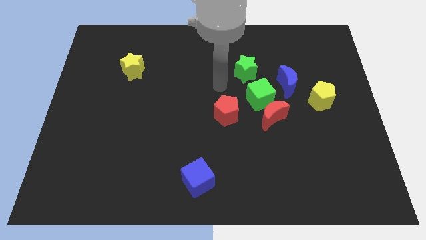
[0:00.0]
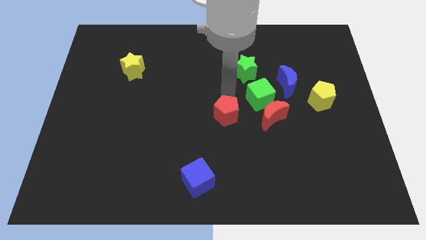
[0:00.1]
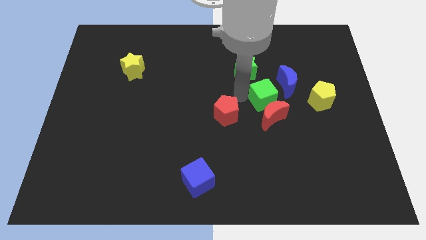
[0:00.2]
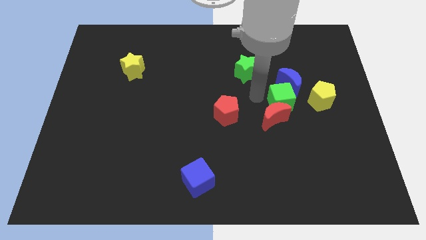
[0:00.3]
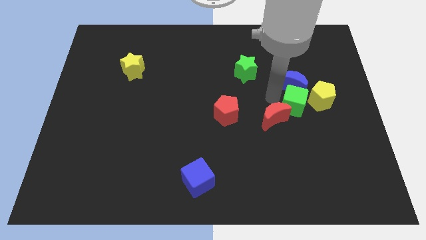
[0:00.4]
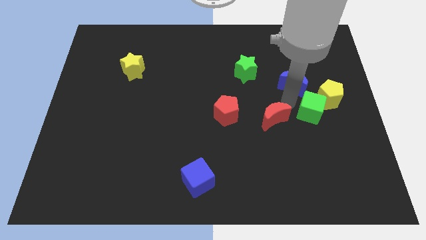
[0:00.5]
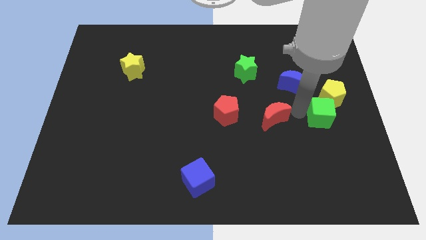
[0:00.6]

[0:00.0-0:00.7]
separate the red moon from the green cube

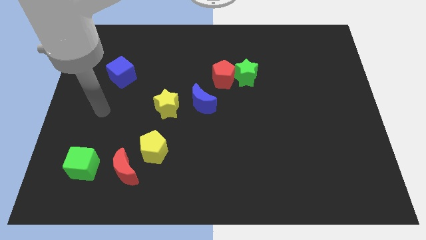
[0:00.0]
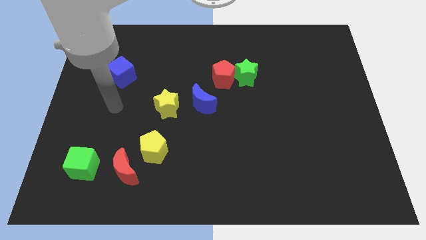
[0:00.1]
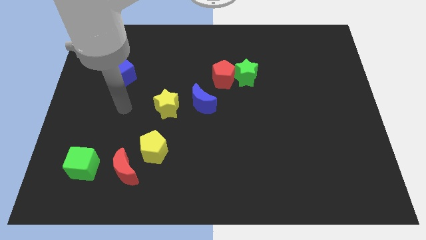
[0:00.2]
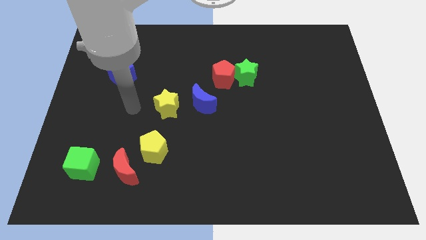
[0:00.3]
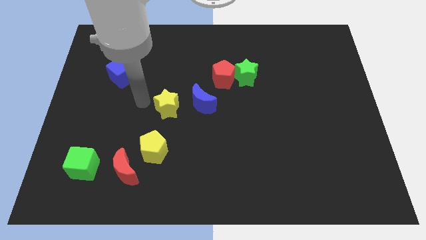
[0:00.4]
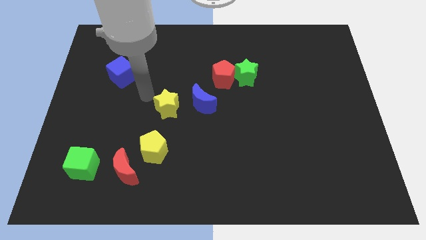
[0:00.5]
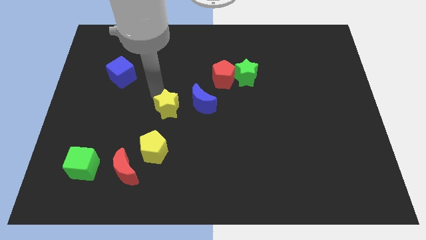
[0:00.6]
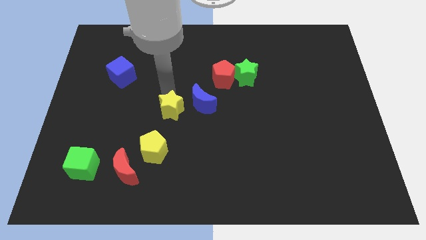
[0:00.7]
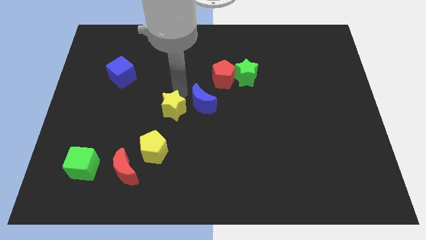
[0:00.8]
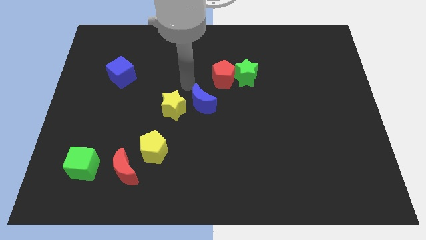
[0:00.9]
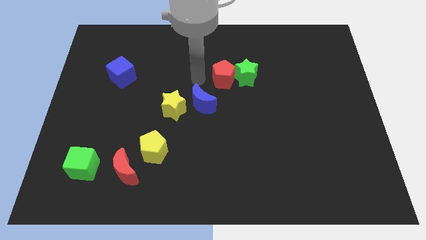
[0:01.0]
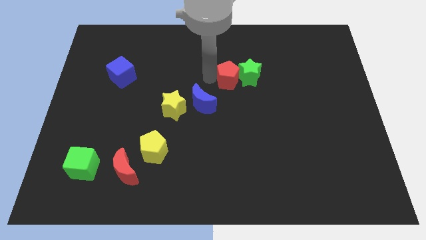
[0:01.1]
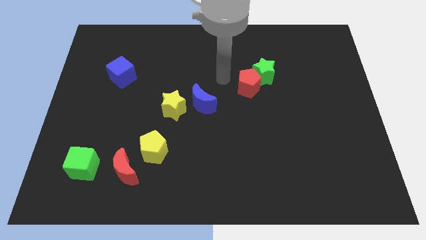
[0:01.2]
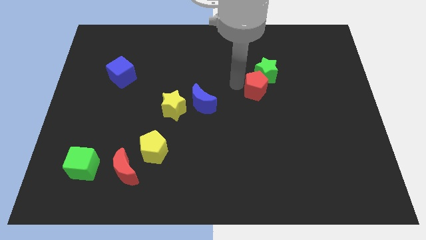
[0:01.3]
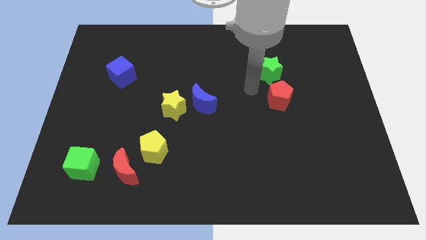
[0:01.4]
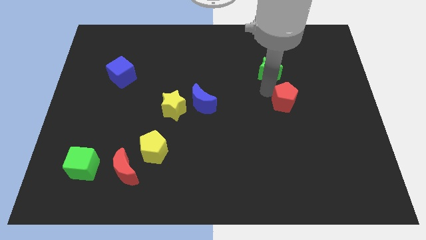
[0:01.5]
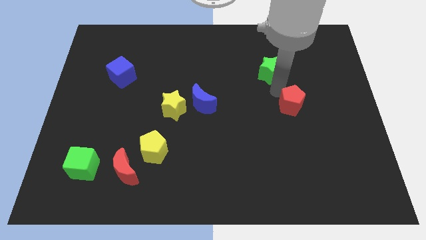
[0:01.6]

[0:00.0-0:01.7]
separate the green star from the red pentagon

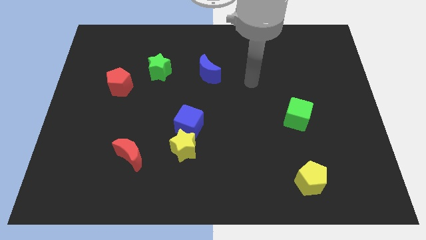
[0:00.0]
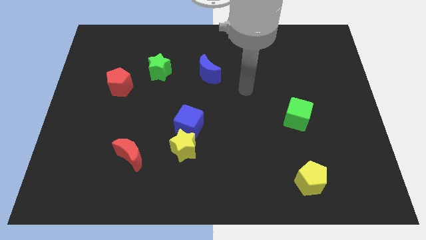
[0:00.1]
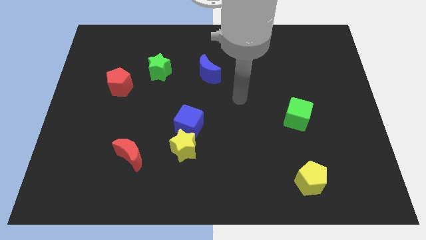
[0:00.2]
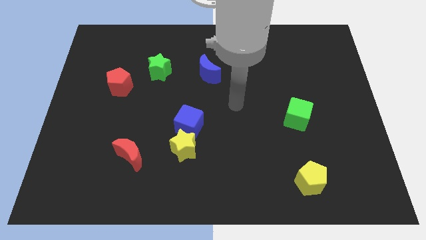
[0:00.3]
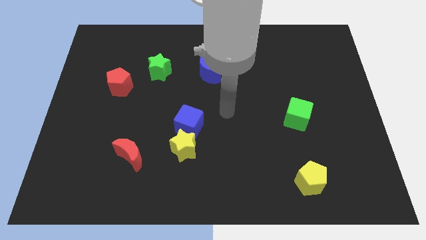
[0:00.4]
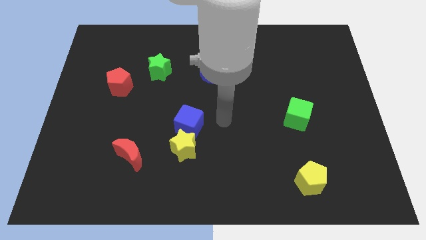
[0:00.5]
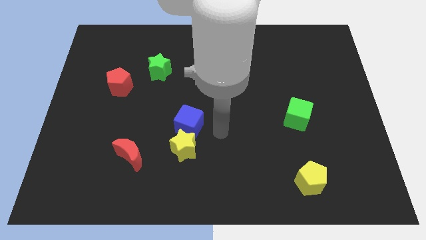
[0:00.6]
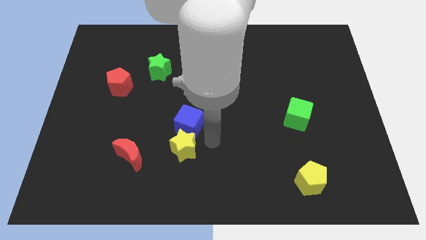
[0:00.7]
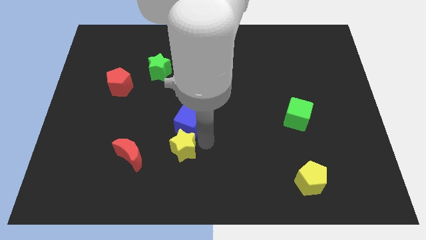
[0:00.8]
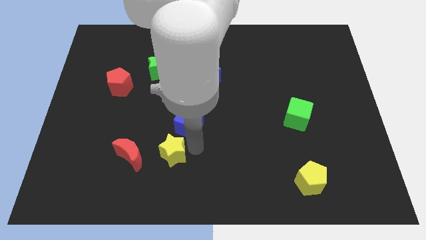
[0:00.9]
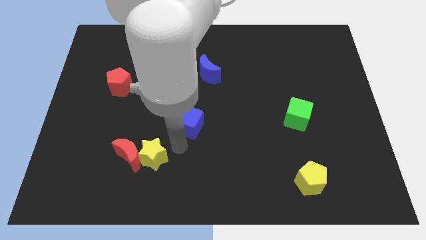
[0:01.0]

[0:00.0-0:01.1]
pull the blue cube apart from the yellow star

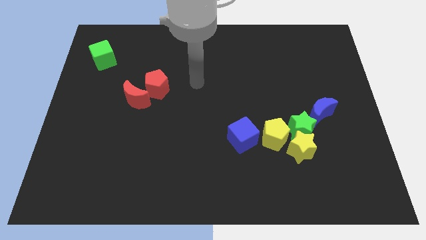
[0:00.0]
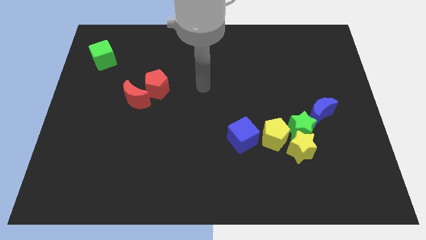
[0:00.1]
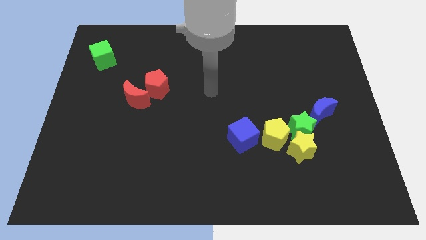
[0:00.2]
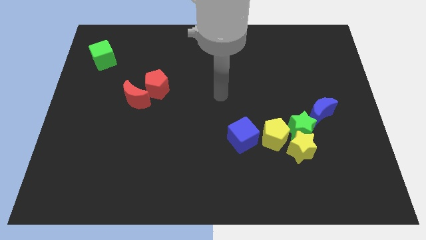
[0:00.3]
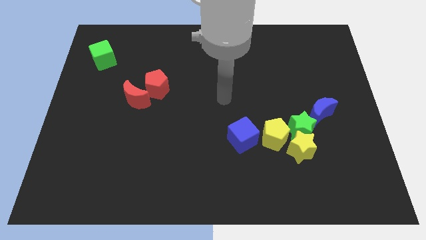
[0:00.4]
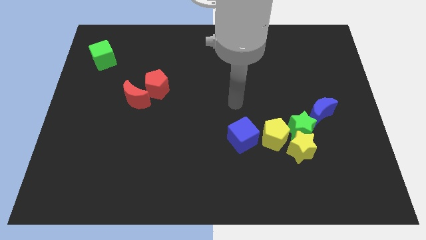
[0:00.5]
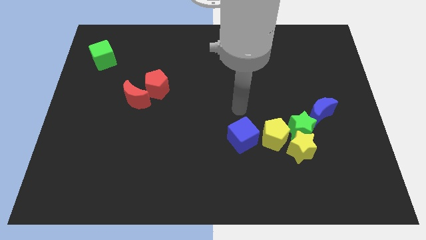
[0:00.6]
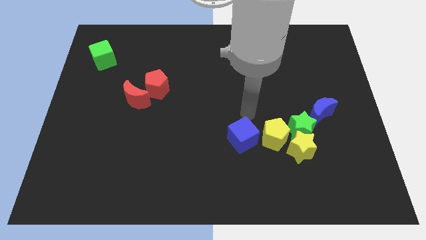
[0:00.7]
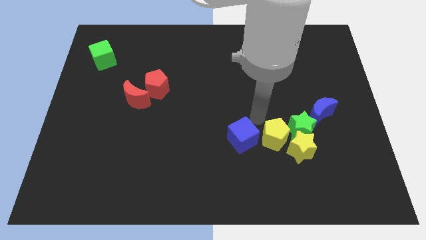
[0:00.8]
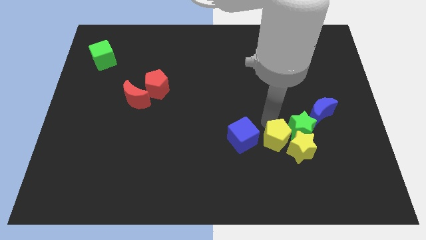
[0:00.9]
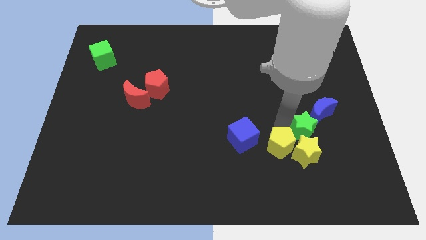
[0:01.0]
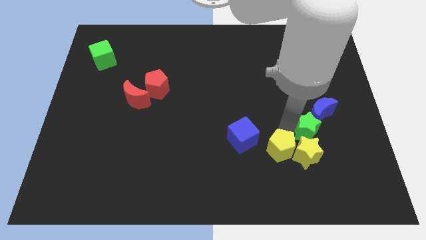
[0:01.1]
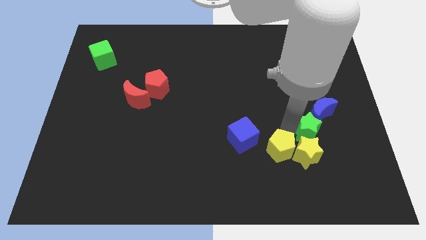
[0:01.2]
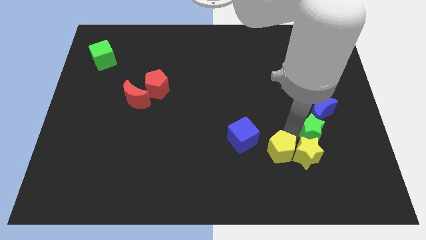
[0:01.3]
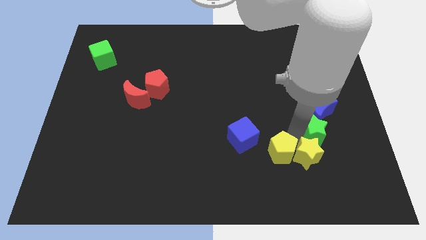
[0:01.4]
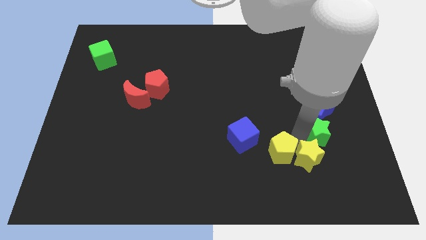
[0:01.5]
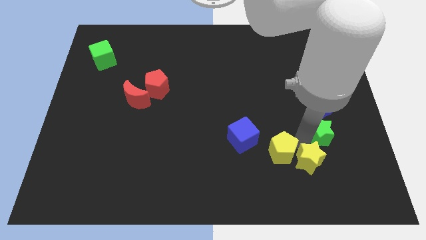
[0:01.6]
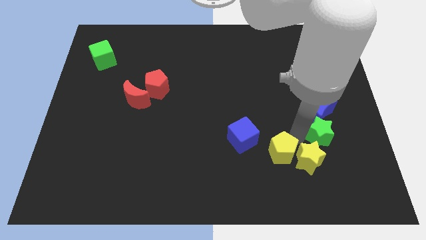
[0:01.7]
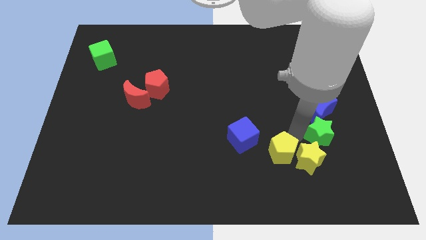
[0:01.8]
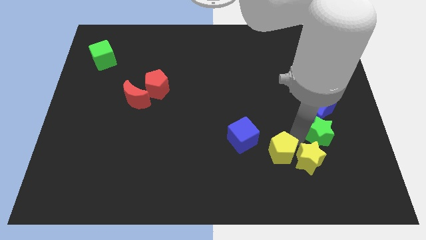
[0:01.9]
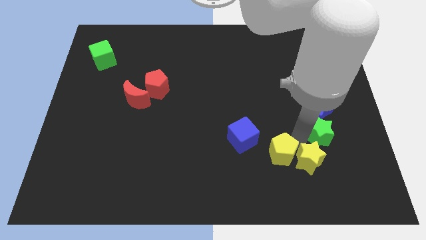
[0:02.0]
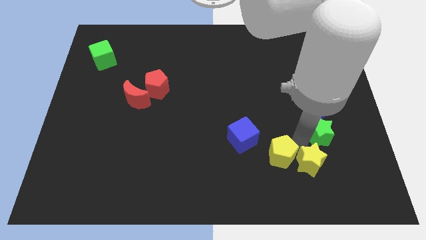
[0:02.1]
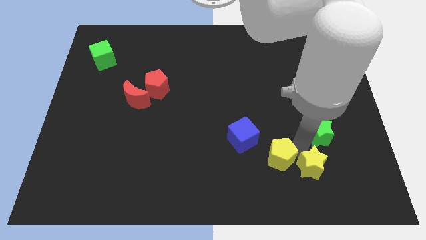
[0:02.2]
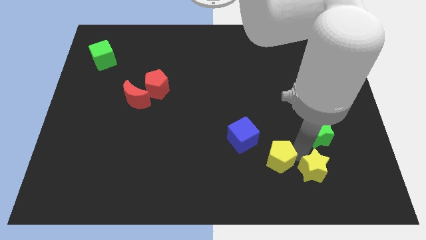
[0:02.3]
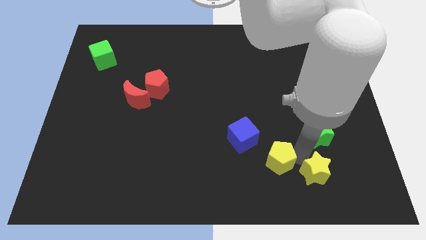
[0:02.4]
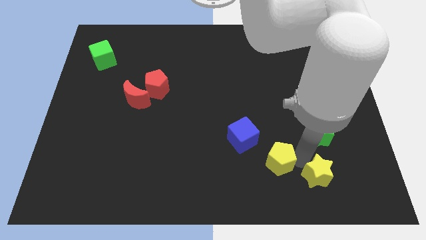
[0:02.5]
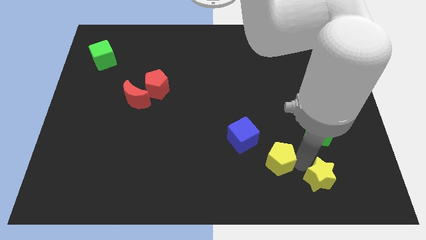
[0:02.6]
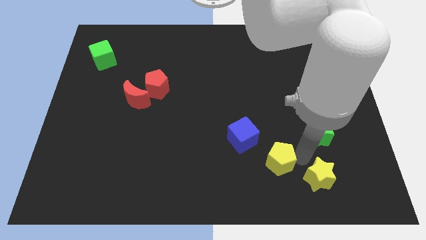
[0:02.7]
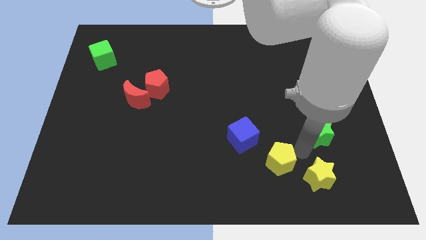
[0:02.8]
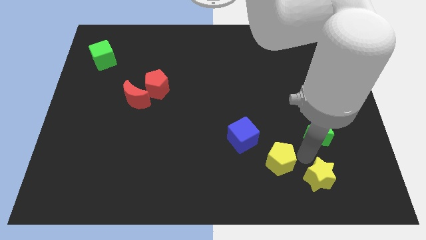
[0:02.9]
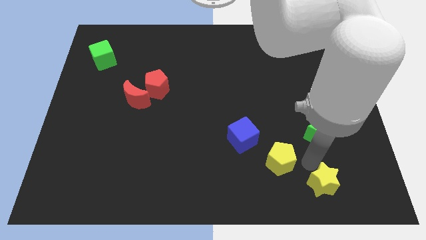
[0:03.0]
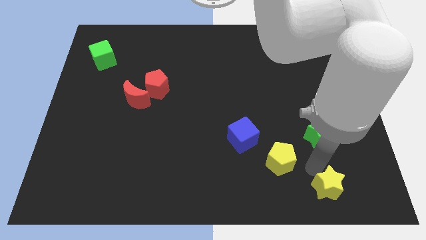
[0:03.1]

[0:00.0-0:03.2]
pull the yellow star apart from the green star and yellow pentagon

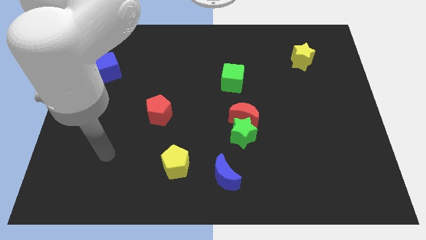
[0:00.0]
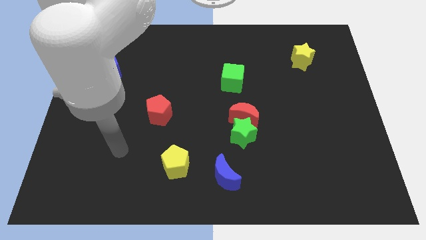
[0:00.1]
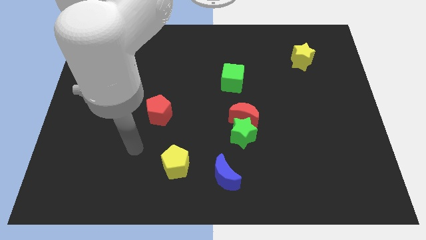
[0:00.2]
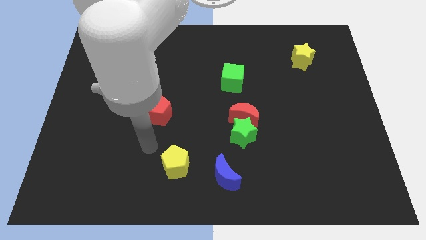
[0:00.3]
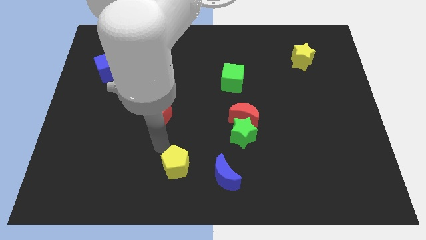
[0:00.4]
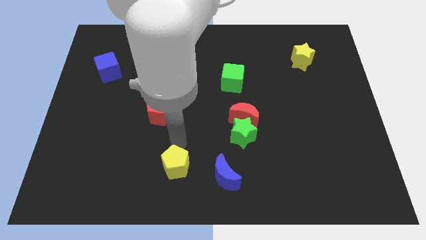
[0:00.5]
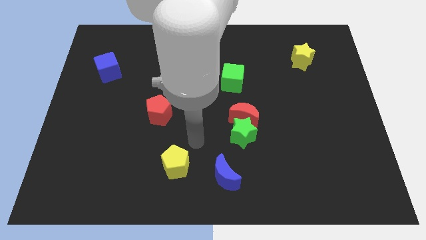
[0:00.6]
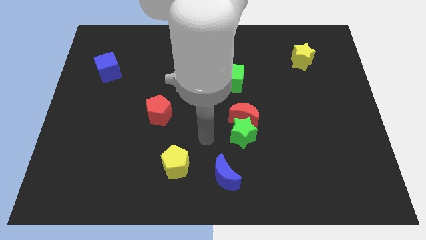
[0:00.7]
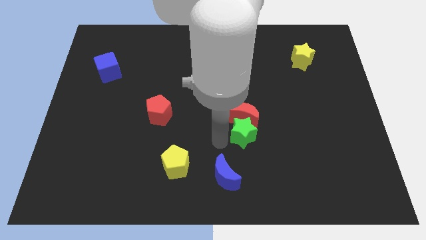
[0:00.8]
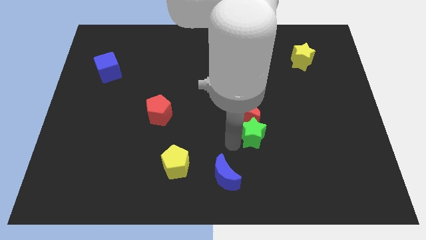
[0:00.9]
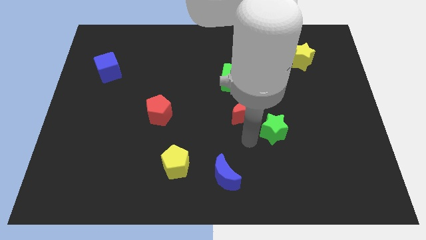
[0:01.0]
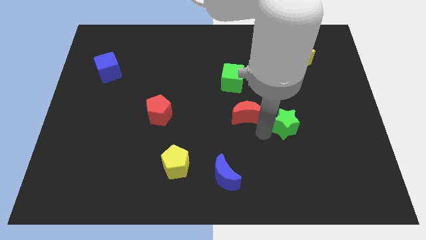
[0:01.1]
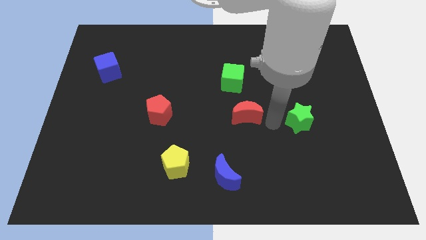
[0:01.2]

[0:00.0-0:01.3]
move the red moon away from the green star

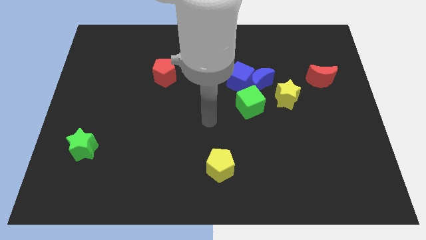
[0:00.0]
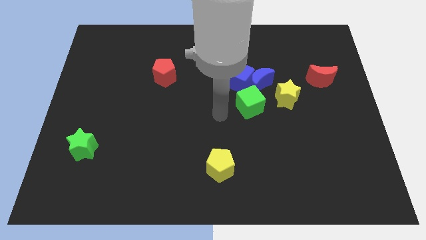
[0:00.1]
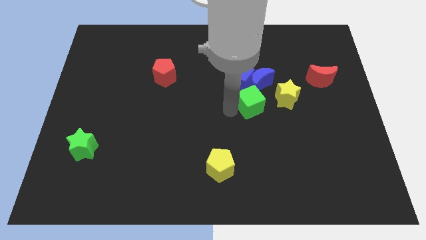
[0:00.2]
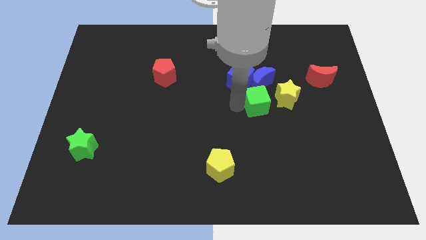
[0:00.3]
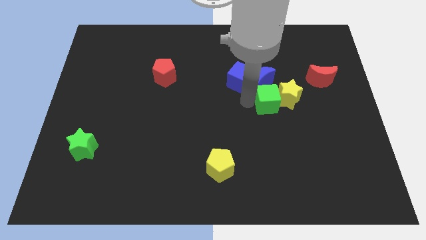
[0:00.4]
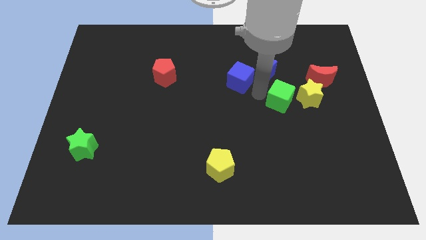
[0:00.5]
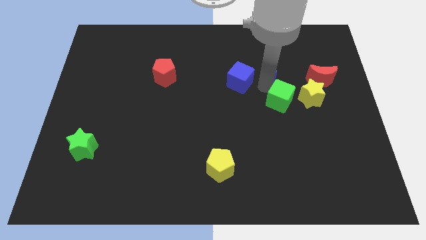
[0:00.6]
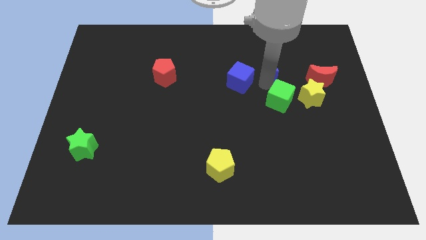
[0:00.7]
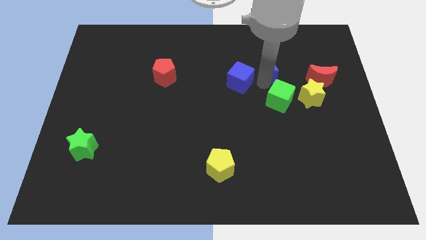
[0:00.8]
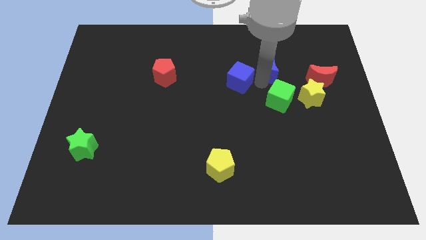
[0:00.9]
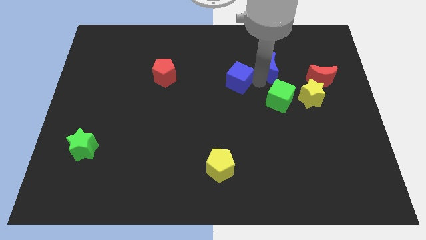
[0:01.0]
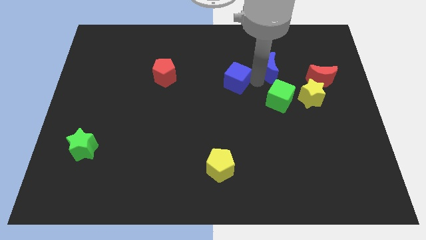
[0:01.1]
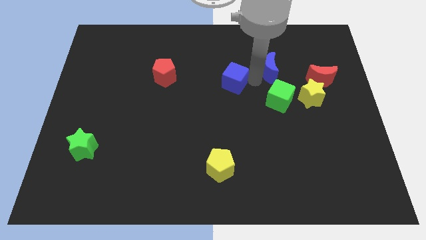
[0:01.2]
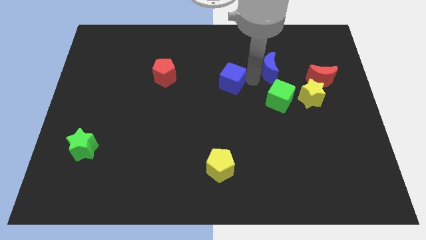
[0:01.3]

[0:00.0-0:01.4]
move the blue cube away from the blue moon and green cube
